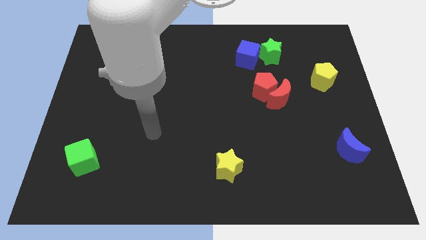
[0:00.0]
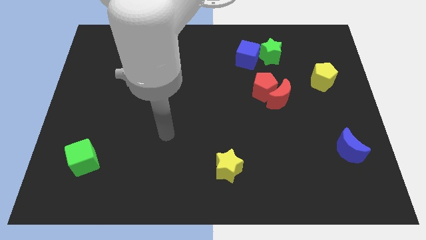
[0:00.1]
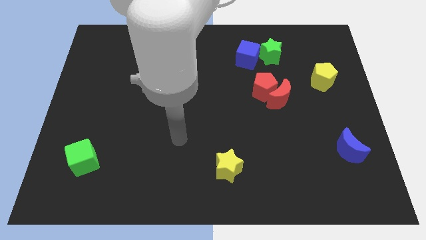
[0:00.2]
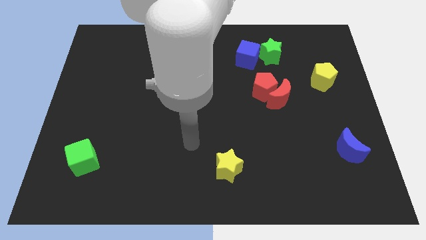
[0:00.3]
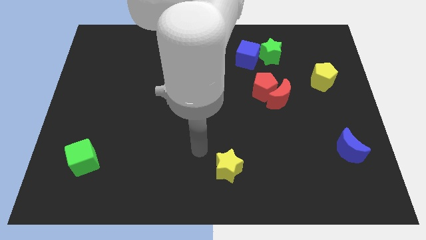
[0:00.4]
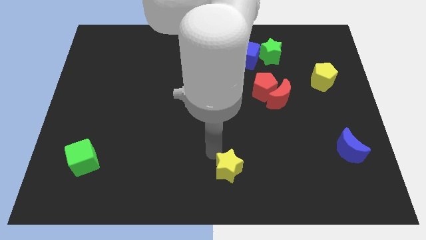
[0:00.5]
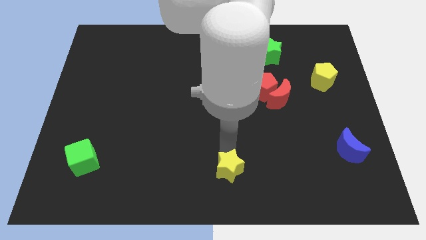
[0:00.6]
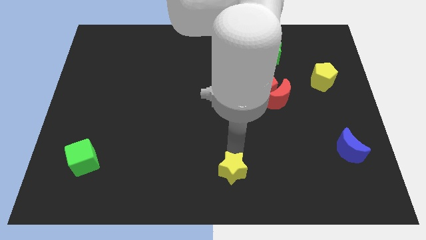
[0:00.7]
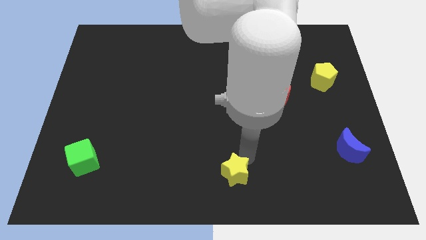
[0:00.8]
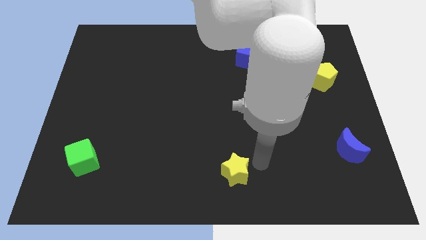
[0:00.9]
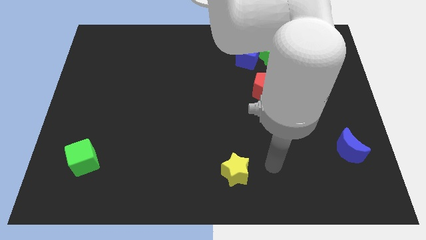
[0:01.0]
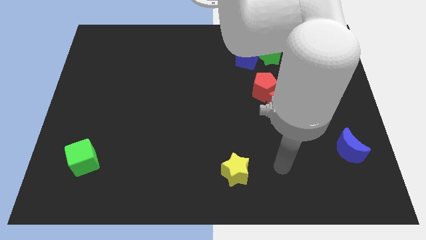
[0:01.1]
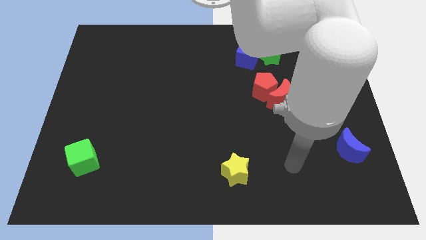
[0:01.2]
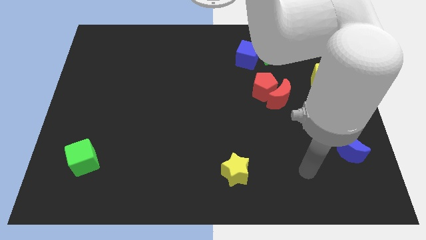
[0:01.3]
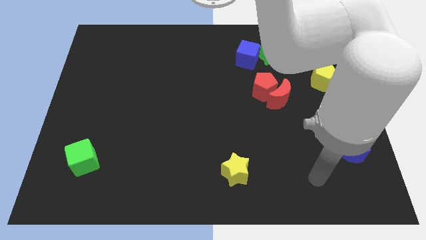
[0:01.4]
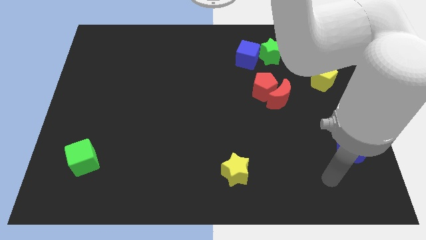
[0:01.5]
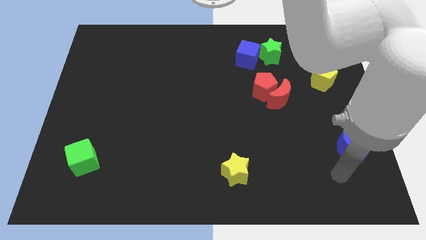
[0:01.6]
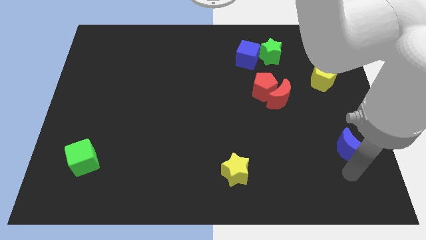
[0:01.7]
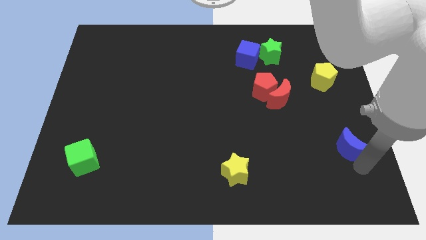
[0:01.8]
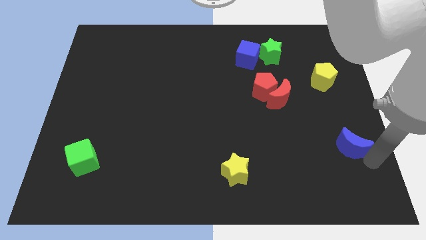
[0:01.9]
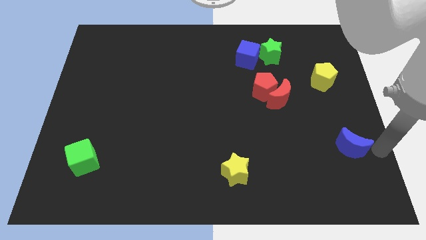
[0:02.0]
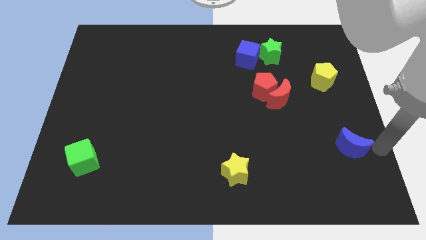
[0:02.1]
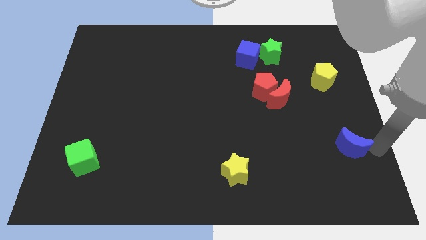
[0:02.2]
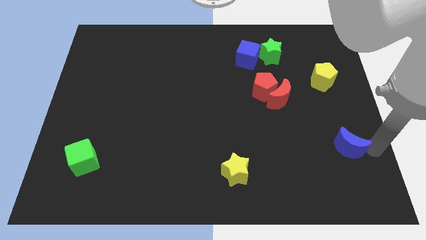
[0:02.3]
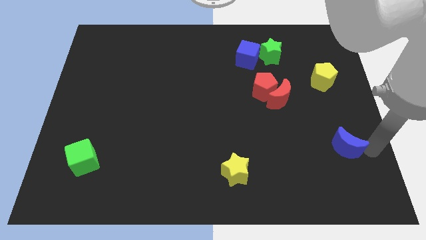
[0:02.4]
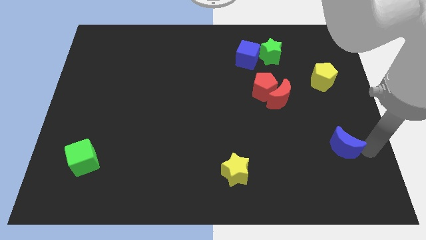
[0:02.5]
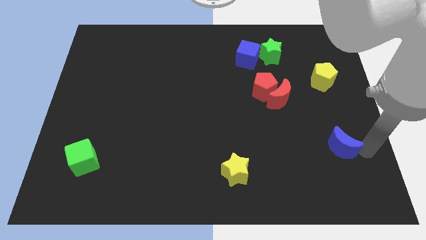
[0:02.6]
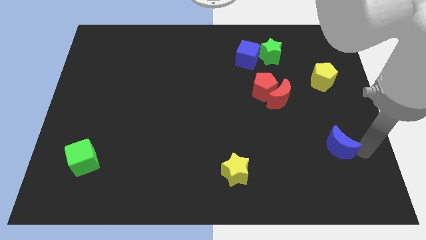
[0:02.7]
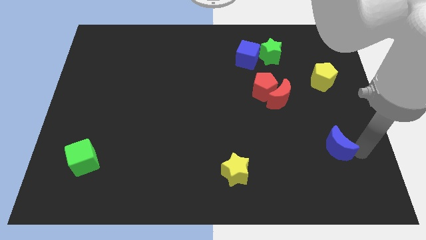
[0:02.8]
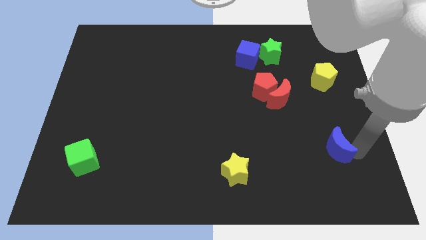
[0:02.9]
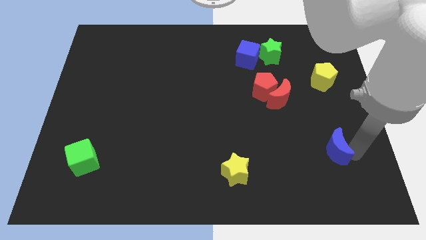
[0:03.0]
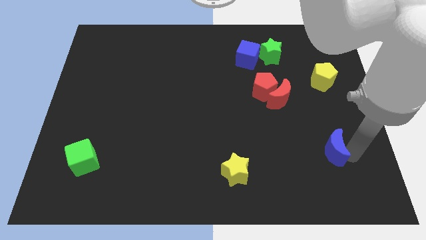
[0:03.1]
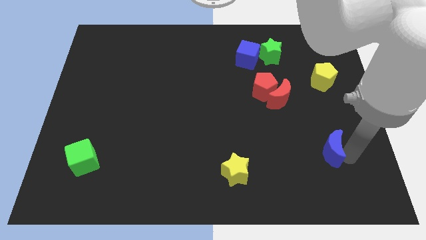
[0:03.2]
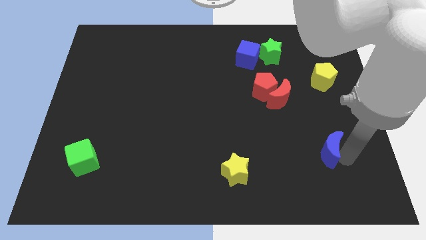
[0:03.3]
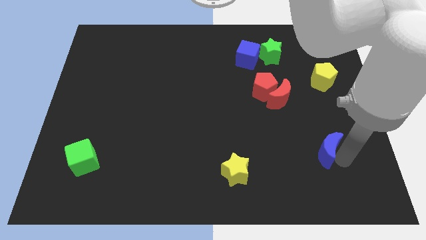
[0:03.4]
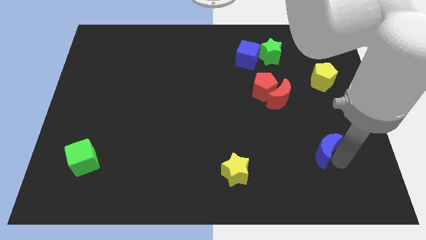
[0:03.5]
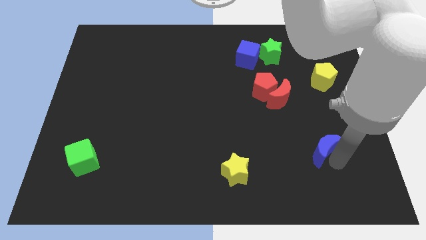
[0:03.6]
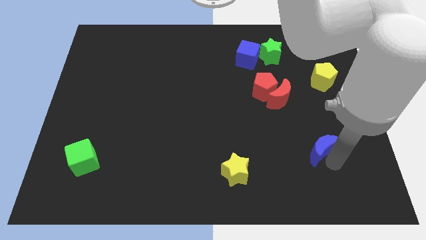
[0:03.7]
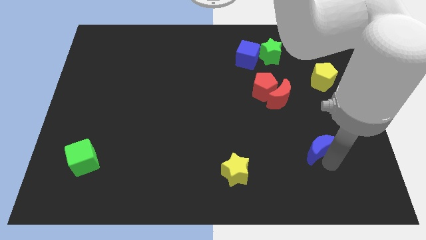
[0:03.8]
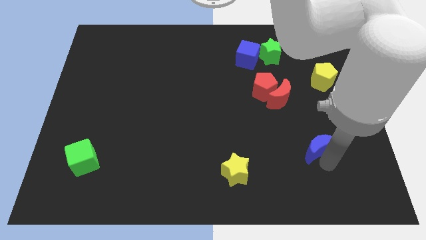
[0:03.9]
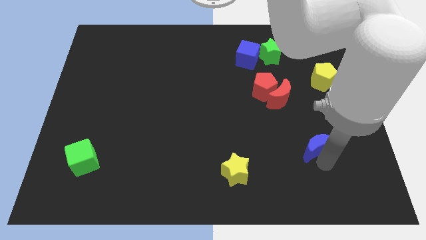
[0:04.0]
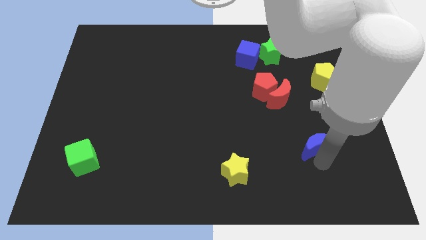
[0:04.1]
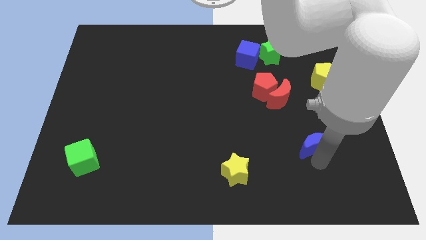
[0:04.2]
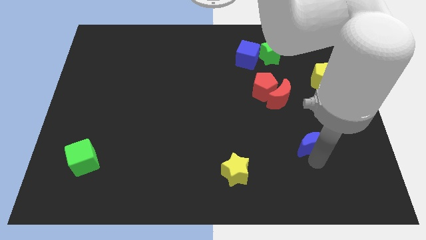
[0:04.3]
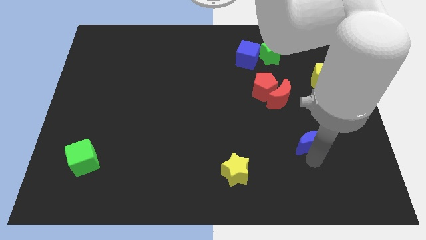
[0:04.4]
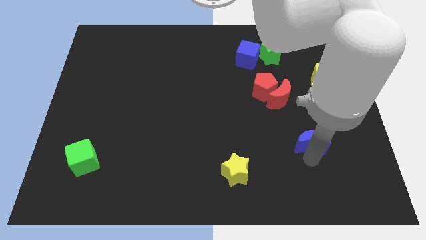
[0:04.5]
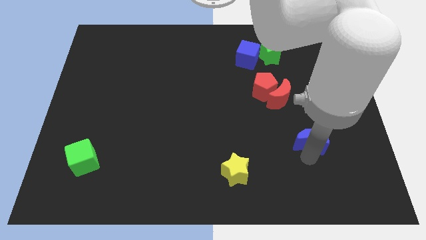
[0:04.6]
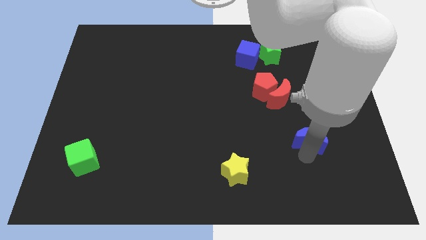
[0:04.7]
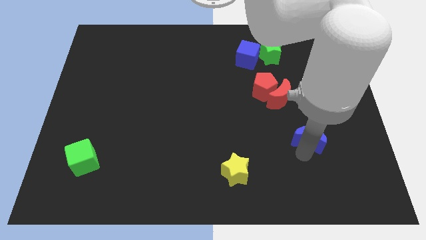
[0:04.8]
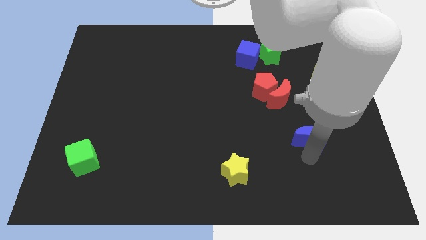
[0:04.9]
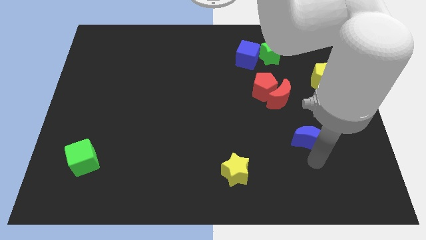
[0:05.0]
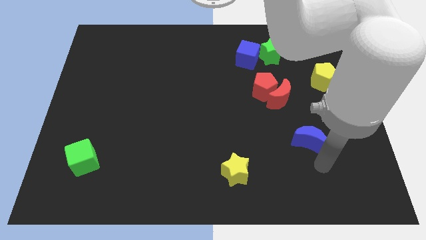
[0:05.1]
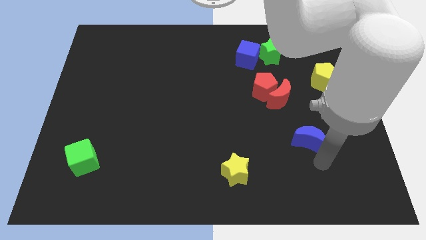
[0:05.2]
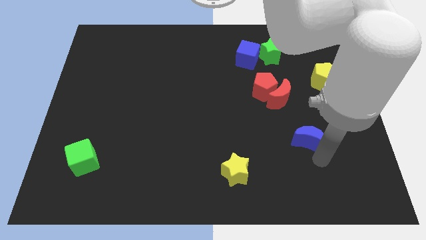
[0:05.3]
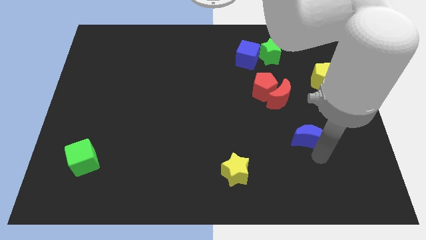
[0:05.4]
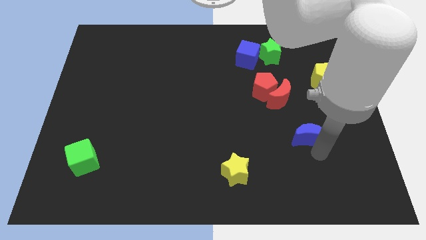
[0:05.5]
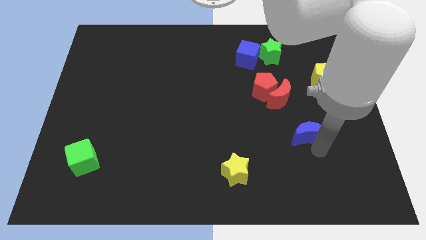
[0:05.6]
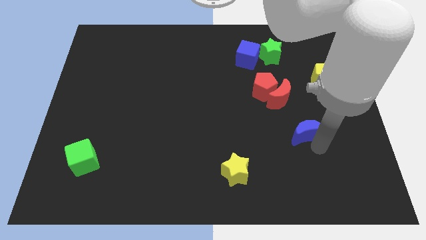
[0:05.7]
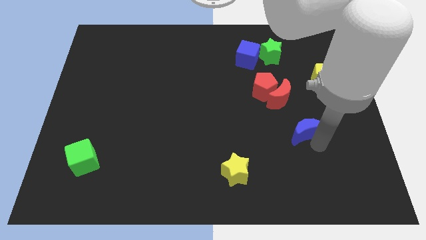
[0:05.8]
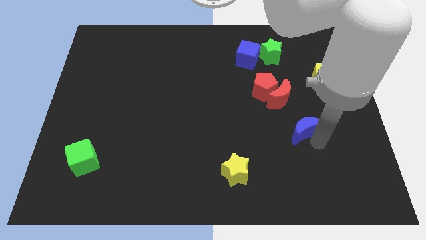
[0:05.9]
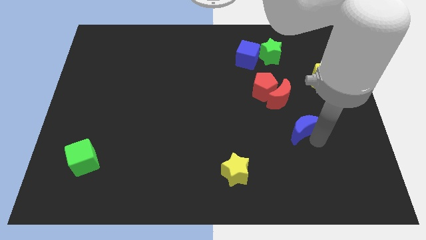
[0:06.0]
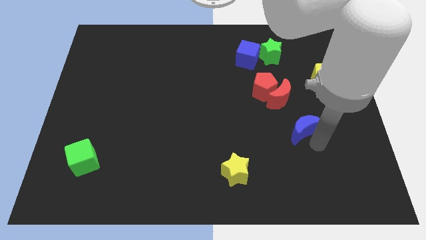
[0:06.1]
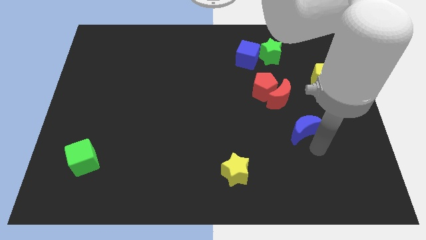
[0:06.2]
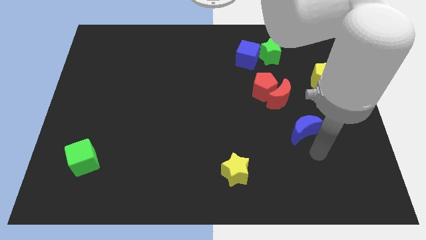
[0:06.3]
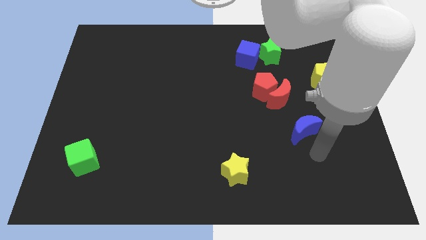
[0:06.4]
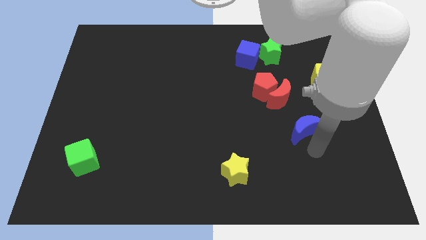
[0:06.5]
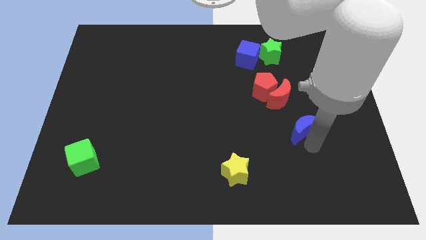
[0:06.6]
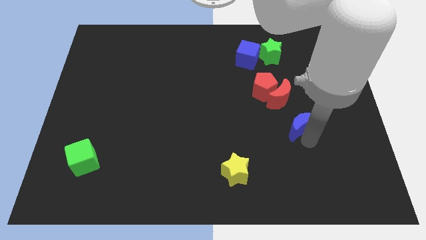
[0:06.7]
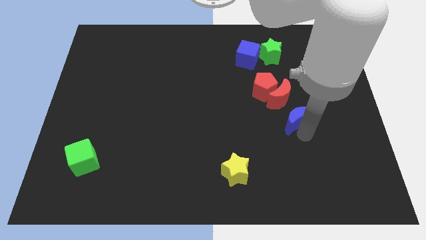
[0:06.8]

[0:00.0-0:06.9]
push the blue moon diagonally down and to the right of the red pentagon
